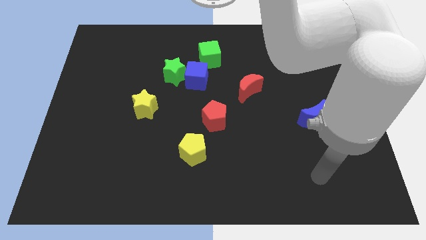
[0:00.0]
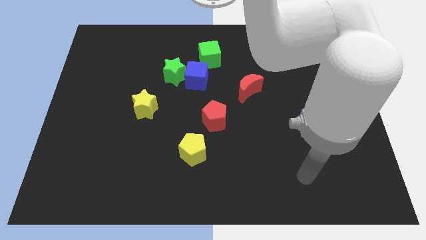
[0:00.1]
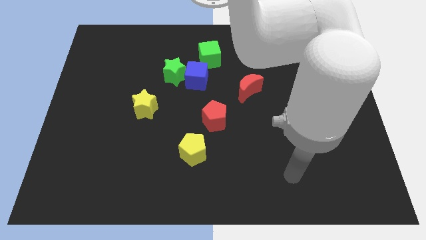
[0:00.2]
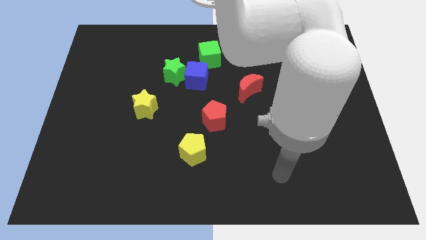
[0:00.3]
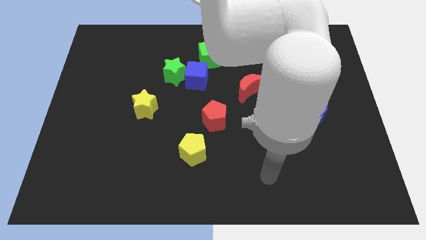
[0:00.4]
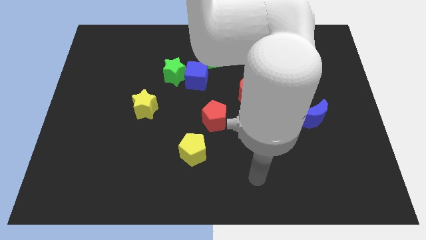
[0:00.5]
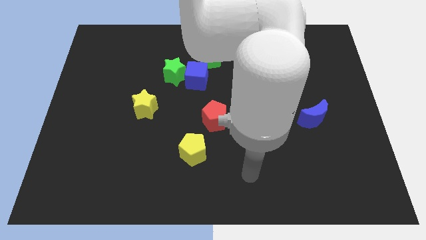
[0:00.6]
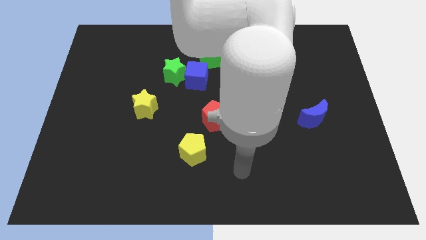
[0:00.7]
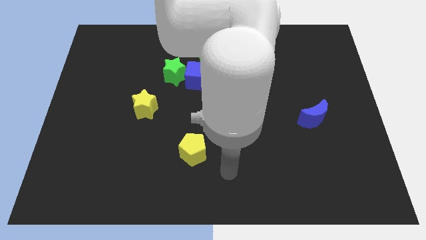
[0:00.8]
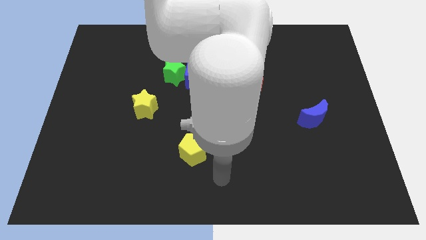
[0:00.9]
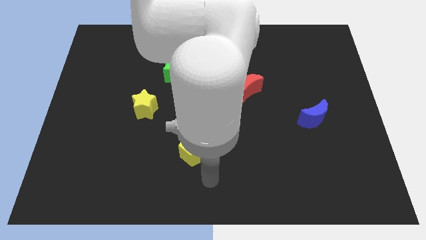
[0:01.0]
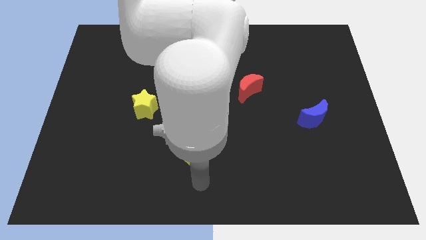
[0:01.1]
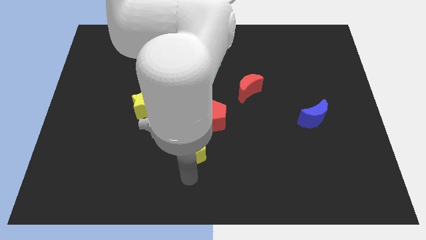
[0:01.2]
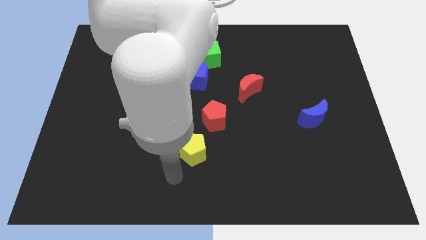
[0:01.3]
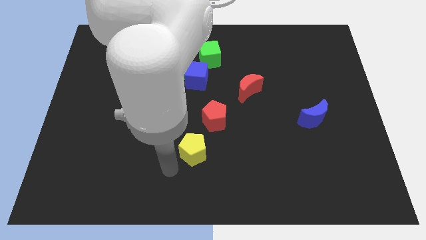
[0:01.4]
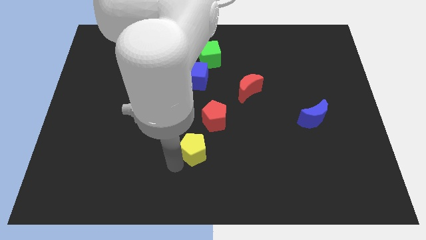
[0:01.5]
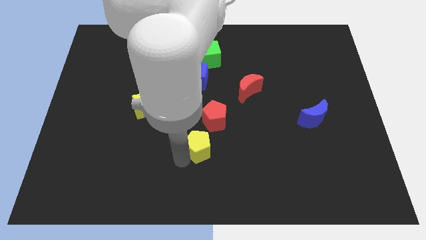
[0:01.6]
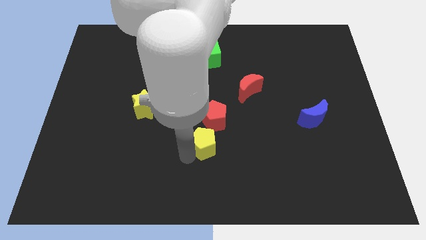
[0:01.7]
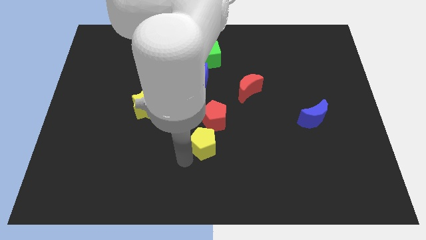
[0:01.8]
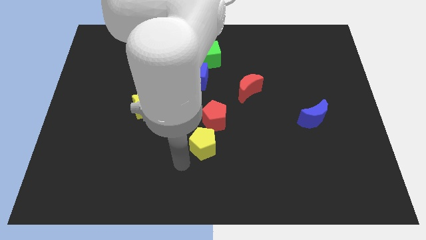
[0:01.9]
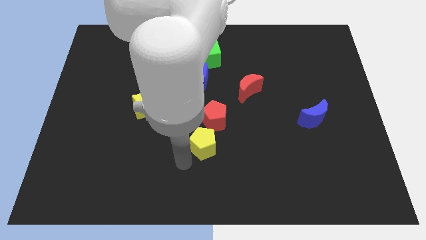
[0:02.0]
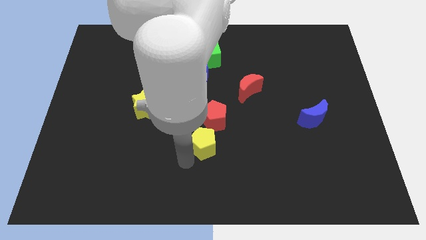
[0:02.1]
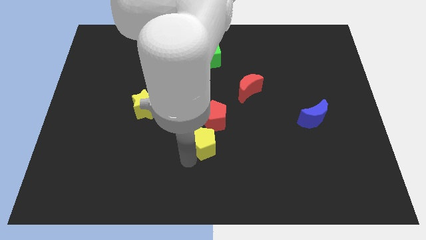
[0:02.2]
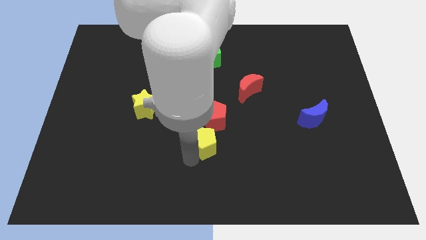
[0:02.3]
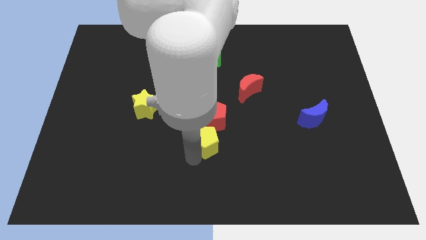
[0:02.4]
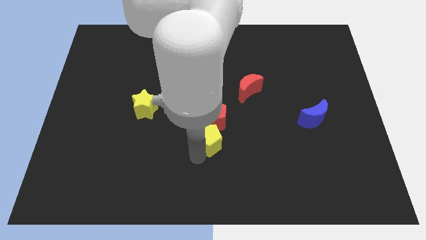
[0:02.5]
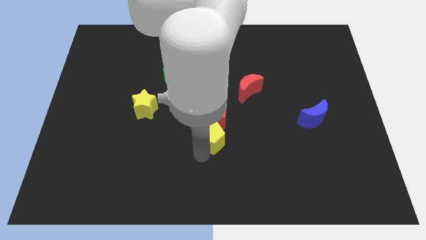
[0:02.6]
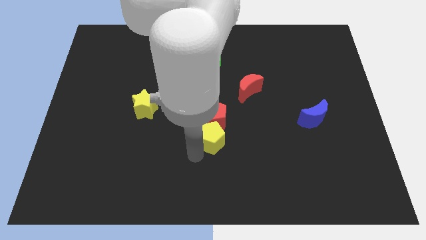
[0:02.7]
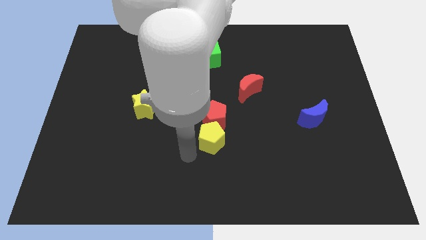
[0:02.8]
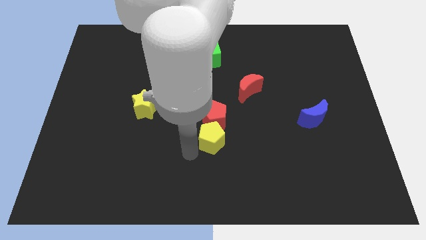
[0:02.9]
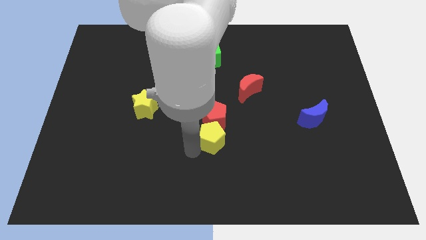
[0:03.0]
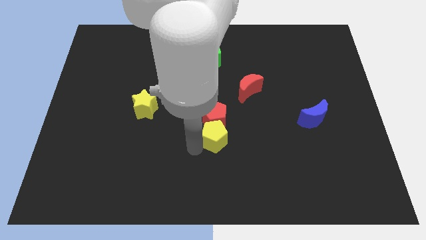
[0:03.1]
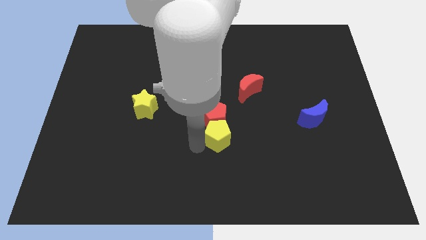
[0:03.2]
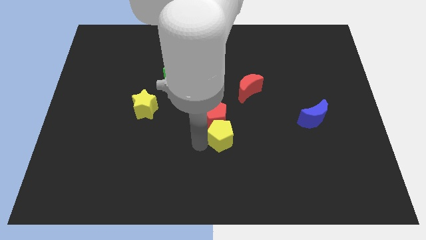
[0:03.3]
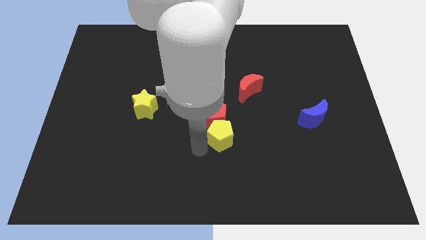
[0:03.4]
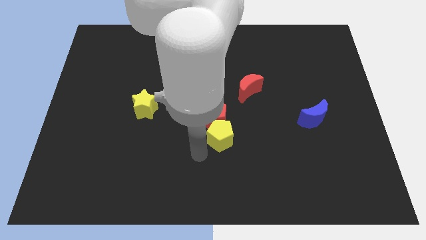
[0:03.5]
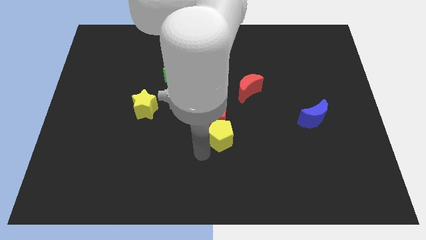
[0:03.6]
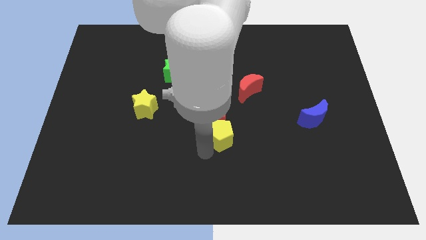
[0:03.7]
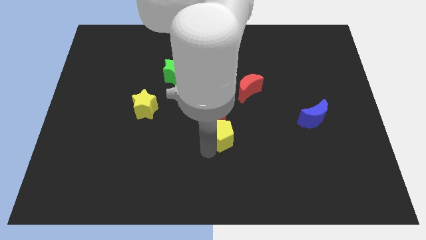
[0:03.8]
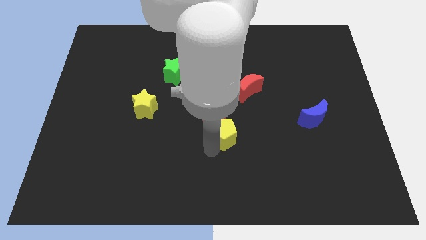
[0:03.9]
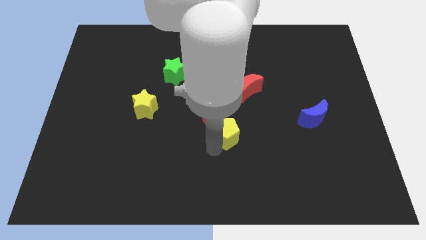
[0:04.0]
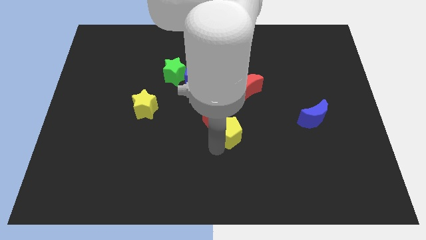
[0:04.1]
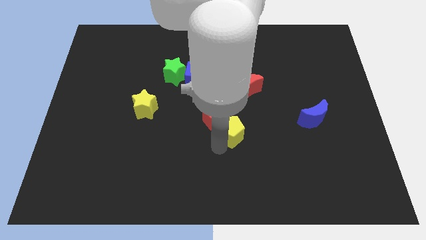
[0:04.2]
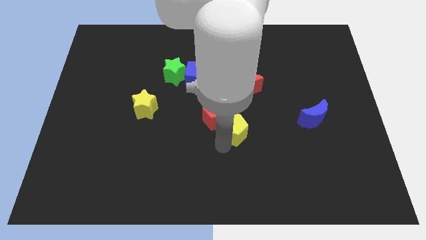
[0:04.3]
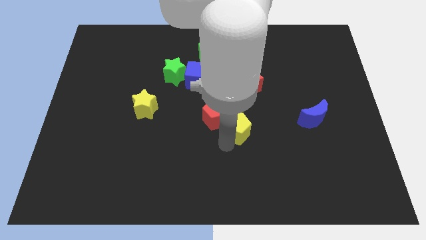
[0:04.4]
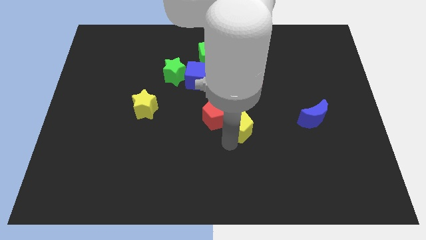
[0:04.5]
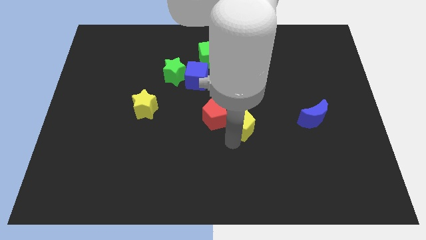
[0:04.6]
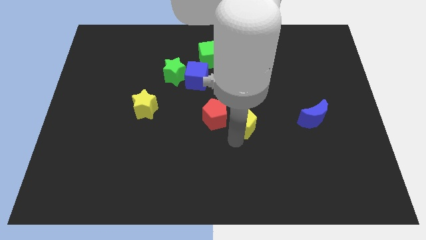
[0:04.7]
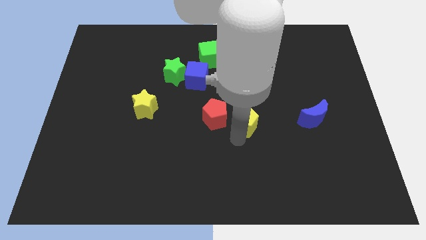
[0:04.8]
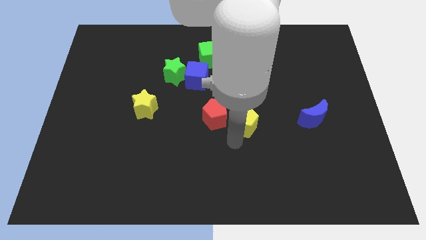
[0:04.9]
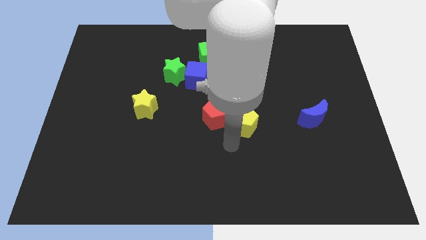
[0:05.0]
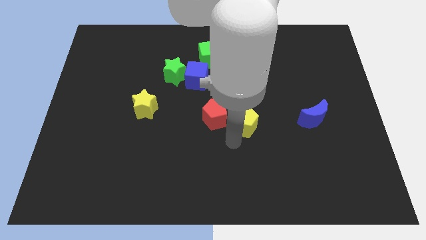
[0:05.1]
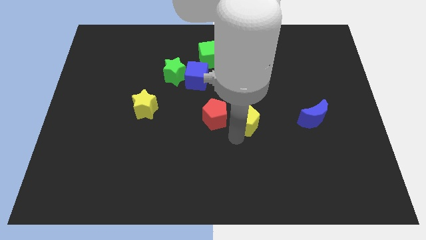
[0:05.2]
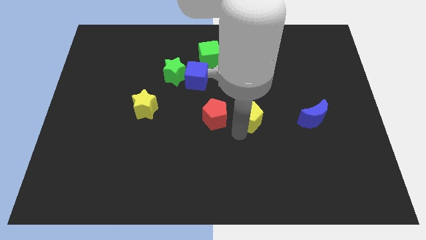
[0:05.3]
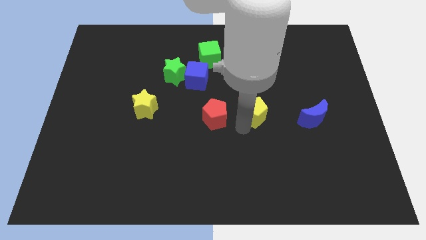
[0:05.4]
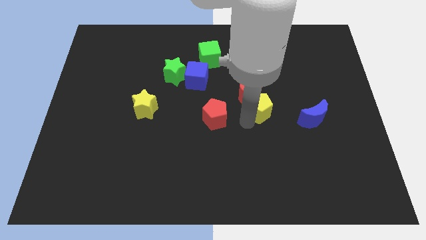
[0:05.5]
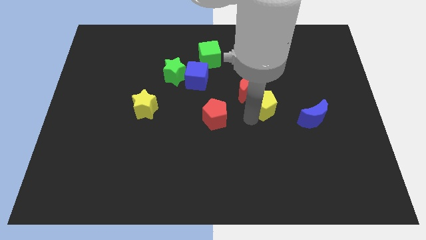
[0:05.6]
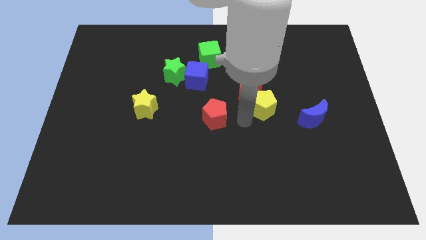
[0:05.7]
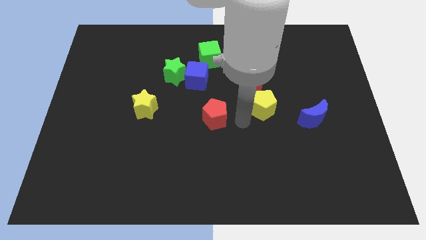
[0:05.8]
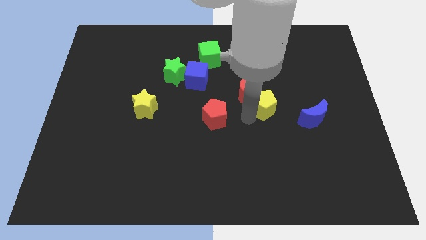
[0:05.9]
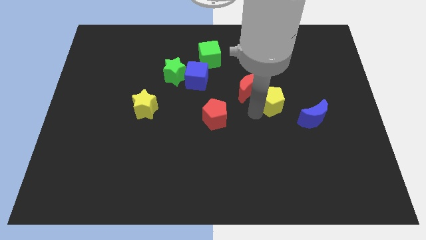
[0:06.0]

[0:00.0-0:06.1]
put the yellow pentagon to the right of the red moon
